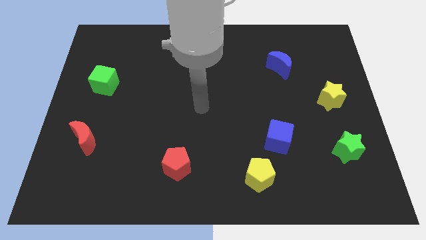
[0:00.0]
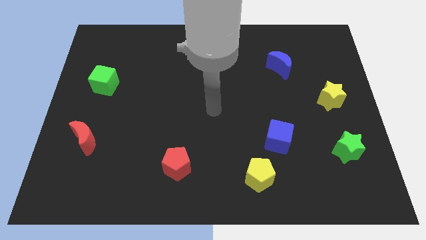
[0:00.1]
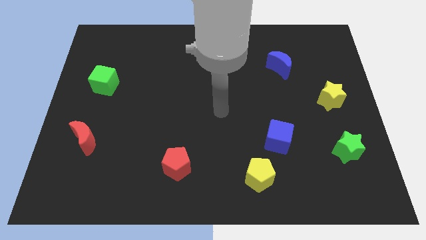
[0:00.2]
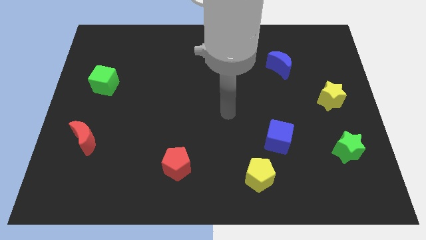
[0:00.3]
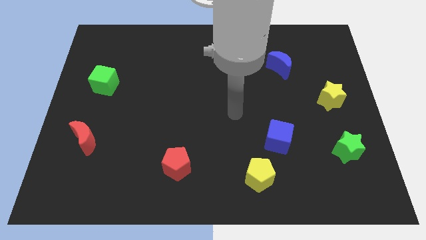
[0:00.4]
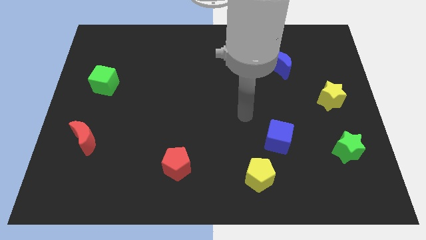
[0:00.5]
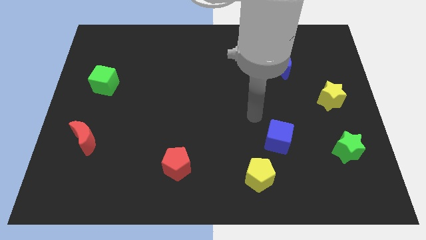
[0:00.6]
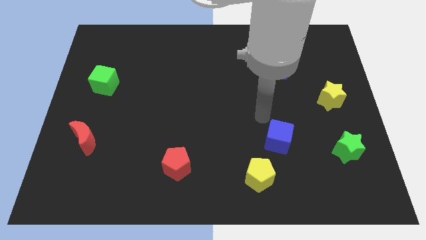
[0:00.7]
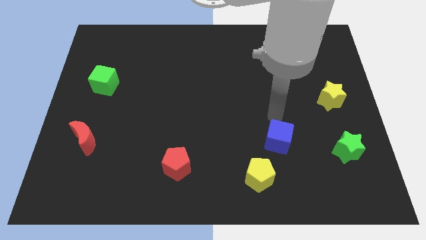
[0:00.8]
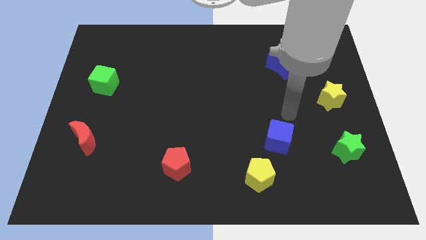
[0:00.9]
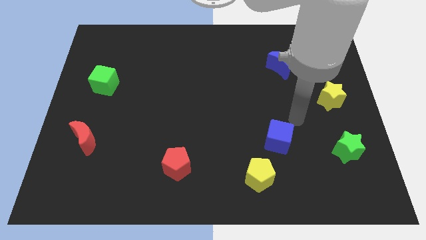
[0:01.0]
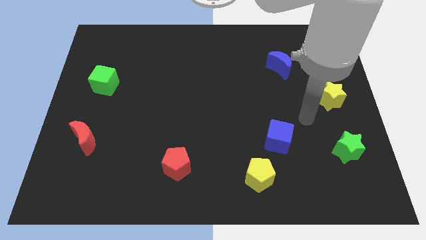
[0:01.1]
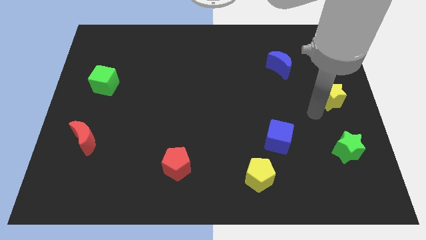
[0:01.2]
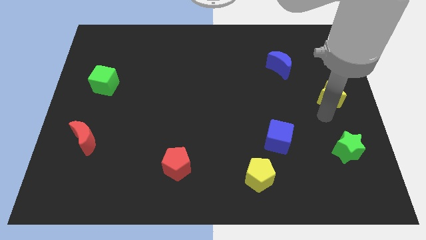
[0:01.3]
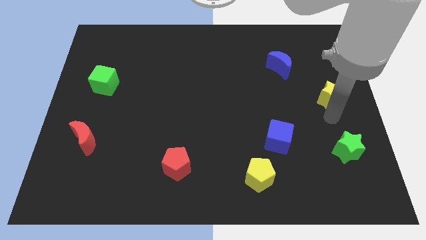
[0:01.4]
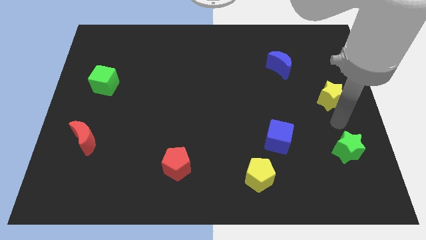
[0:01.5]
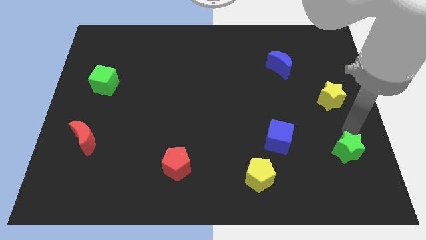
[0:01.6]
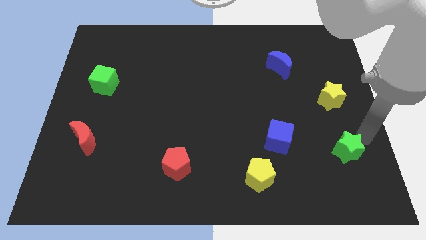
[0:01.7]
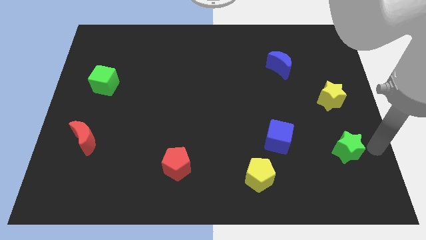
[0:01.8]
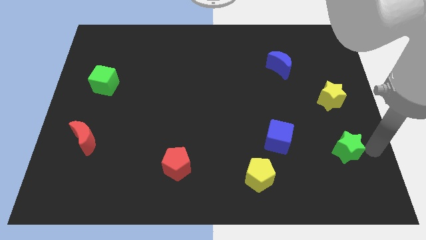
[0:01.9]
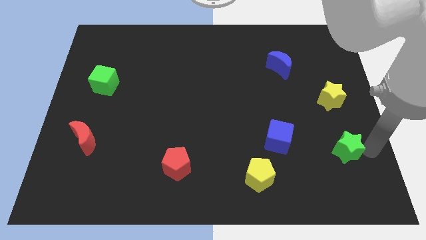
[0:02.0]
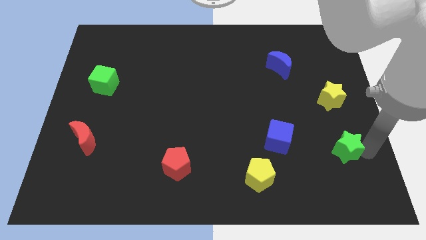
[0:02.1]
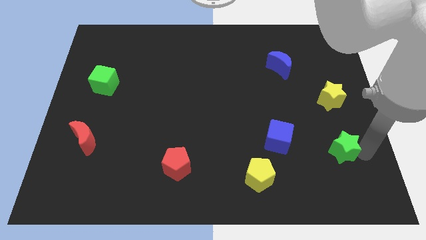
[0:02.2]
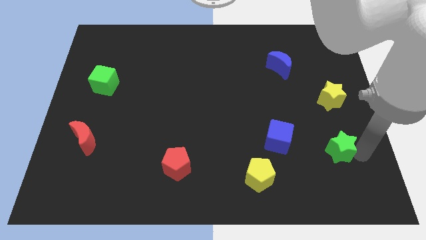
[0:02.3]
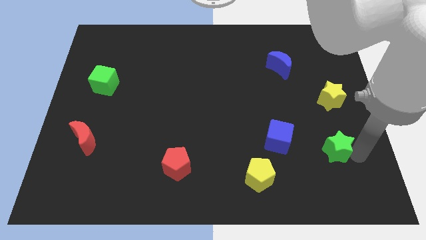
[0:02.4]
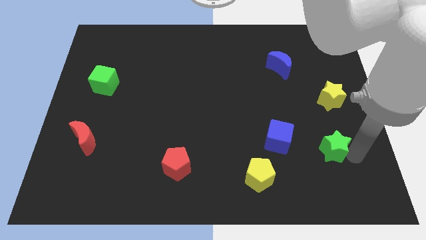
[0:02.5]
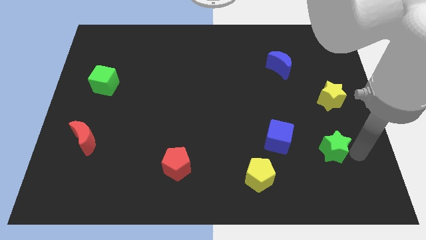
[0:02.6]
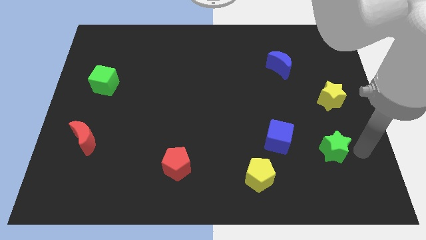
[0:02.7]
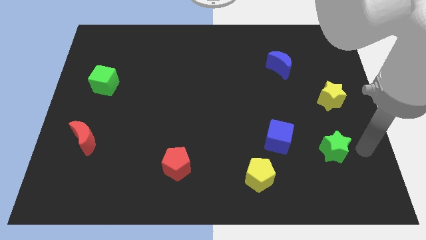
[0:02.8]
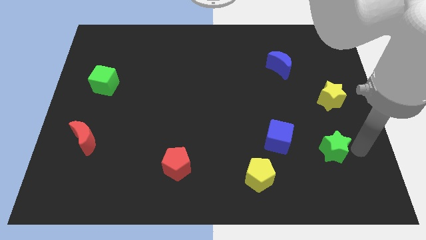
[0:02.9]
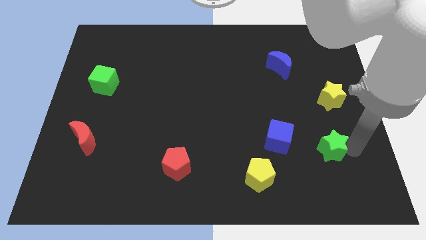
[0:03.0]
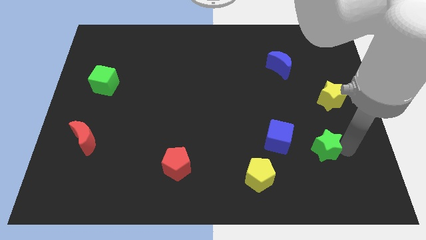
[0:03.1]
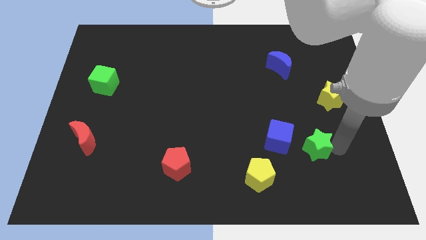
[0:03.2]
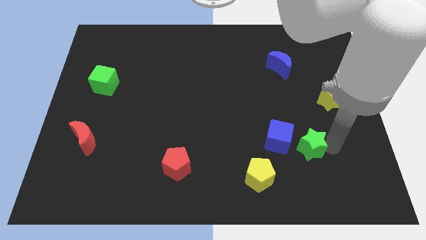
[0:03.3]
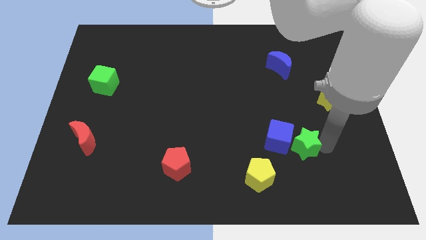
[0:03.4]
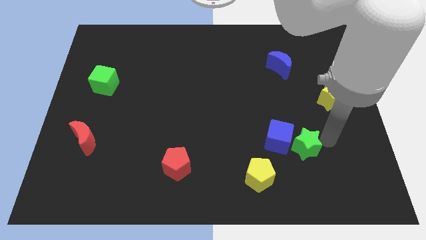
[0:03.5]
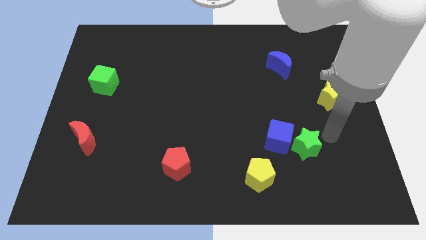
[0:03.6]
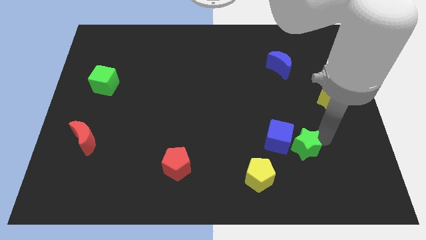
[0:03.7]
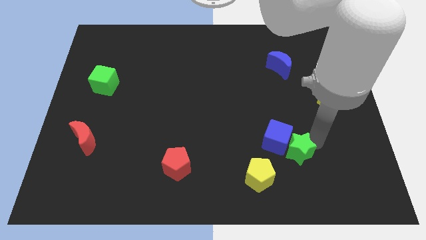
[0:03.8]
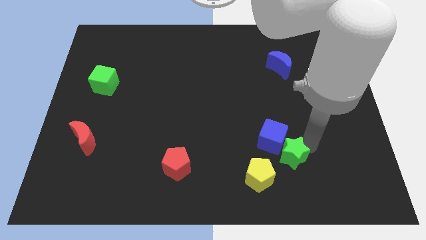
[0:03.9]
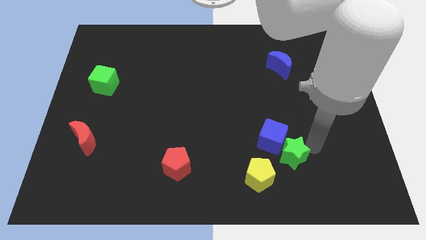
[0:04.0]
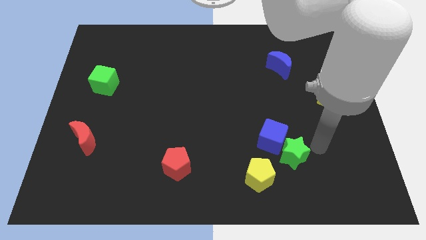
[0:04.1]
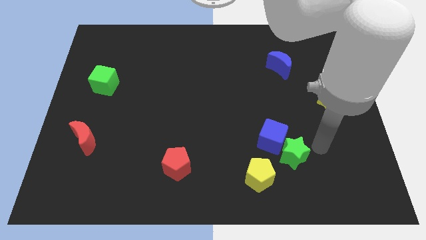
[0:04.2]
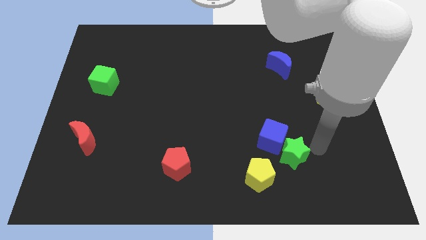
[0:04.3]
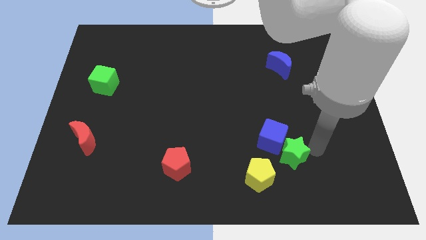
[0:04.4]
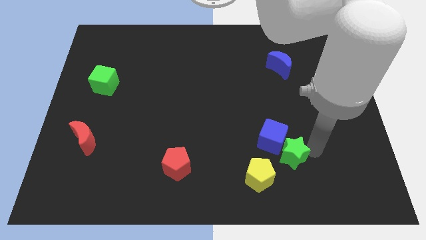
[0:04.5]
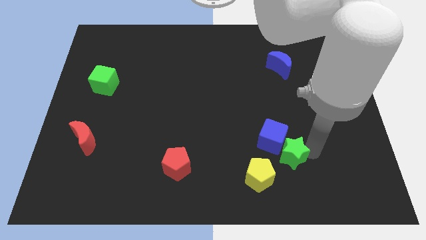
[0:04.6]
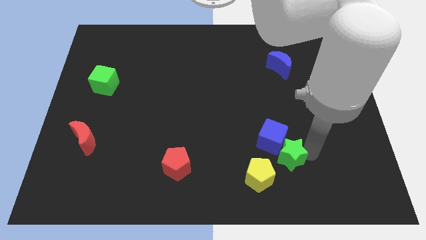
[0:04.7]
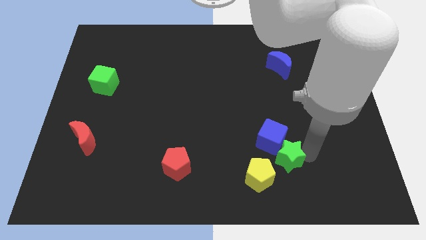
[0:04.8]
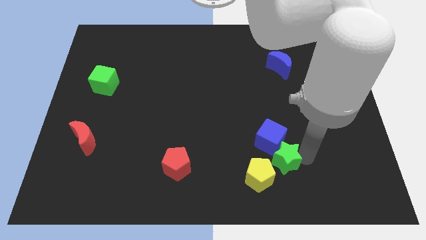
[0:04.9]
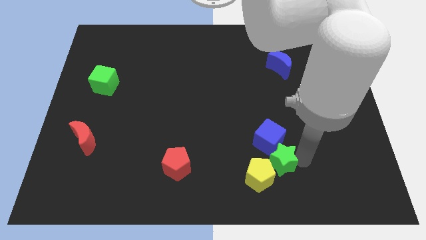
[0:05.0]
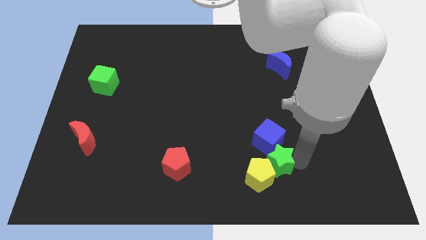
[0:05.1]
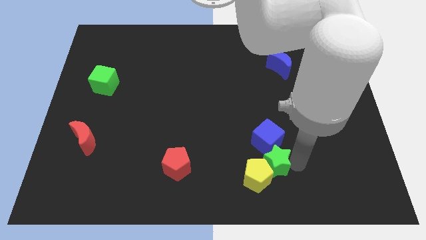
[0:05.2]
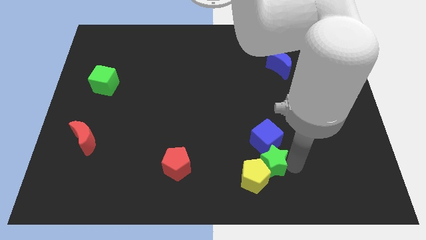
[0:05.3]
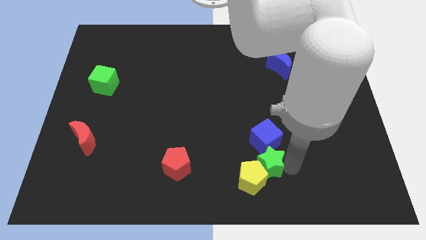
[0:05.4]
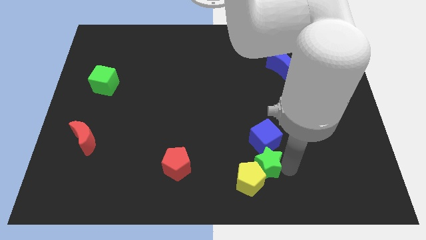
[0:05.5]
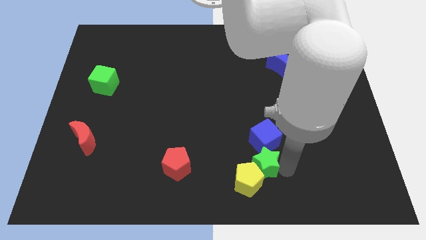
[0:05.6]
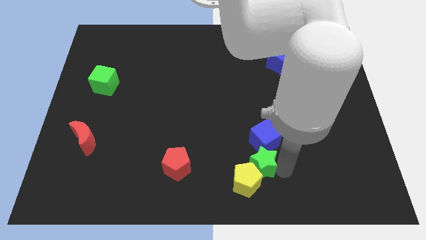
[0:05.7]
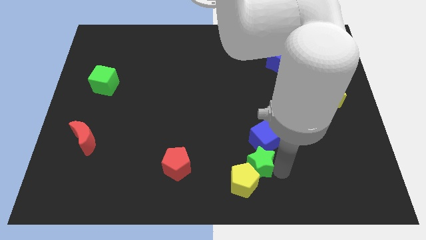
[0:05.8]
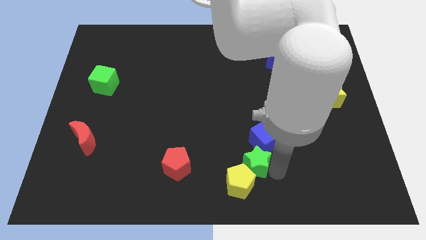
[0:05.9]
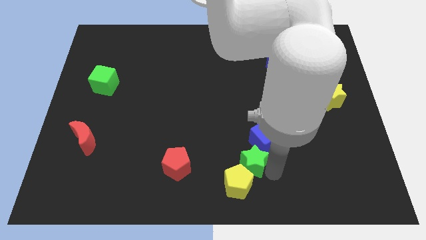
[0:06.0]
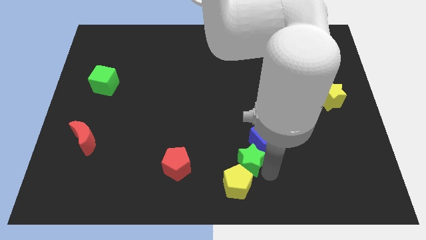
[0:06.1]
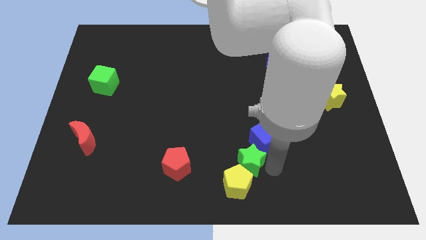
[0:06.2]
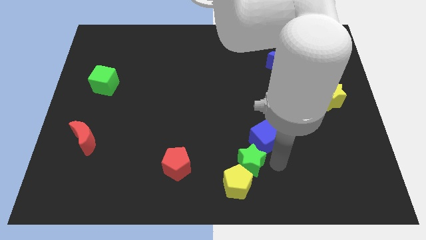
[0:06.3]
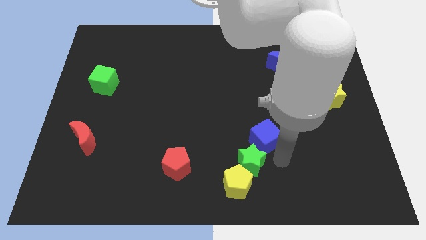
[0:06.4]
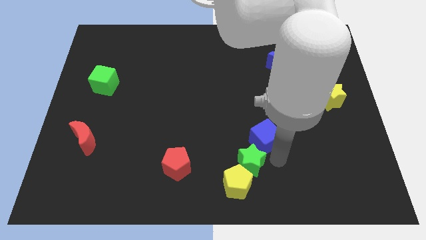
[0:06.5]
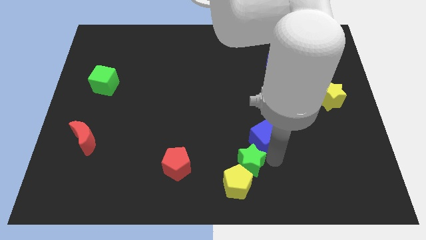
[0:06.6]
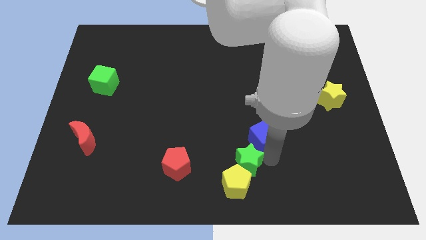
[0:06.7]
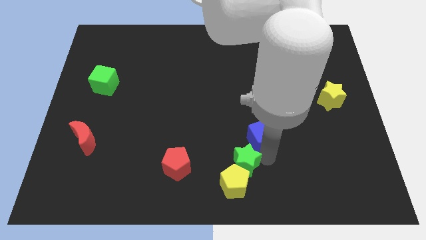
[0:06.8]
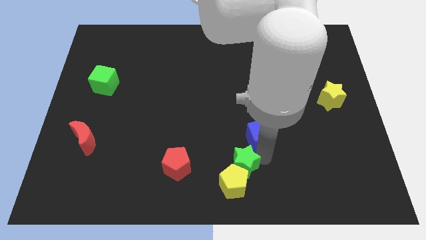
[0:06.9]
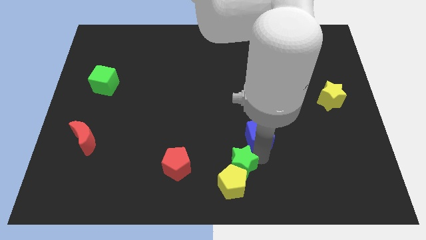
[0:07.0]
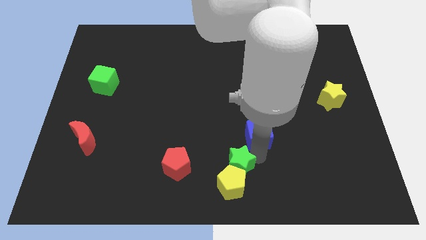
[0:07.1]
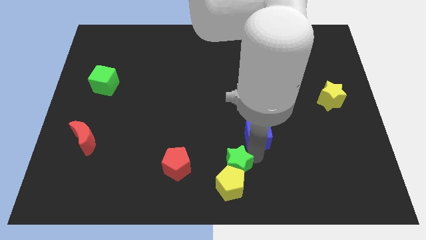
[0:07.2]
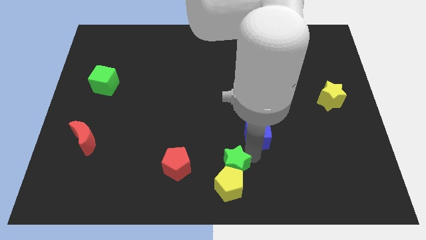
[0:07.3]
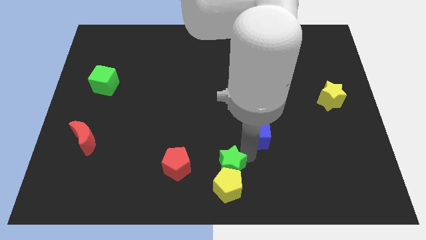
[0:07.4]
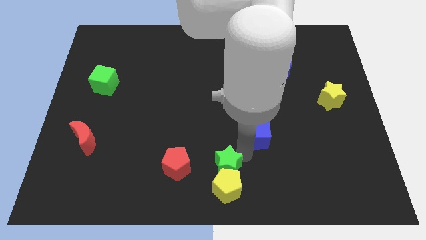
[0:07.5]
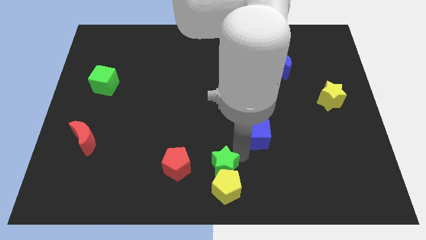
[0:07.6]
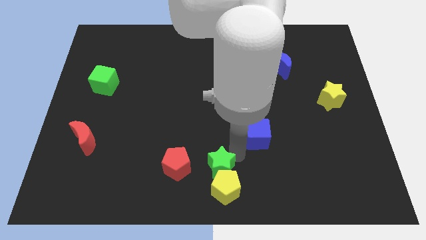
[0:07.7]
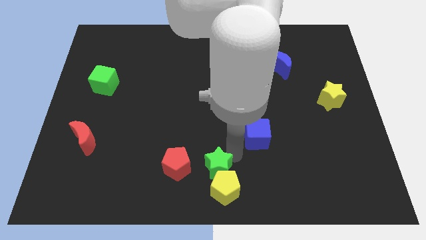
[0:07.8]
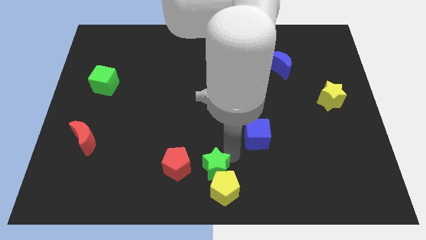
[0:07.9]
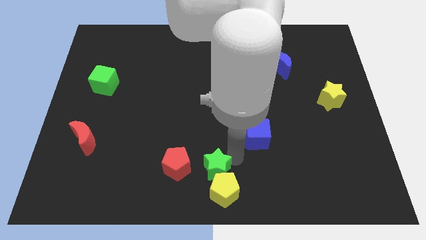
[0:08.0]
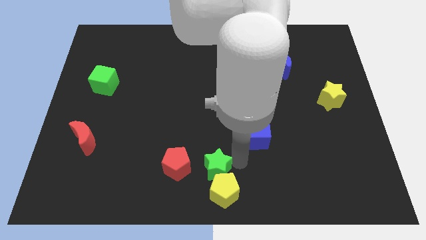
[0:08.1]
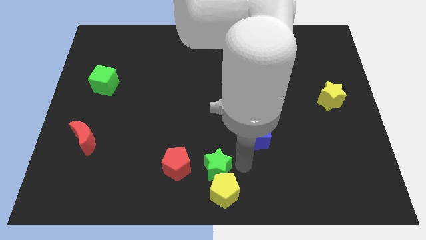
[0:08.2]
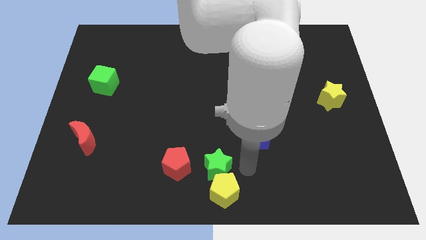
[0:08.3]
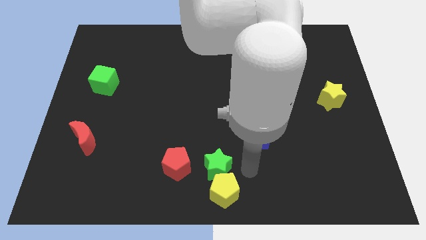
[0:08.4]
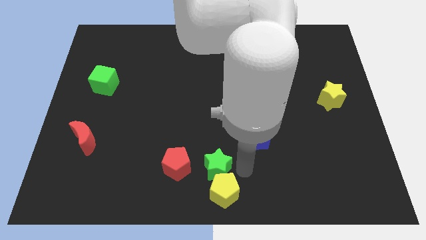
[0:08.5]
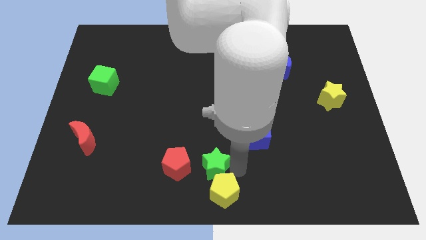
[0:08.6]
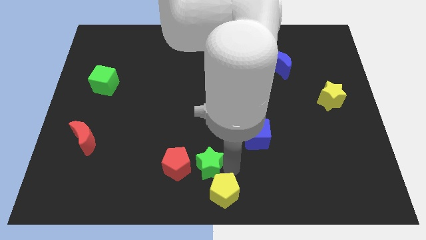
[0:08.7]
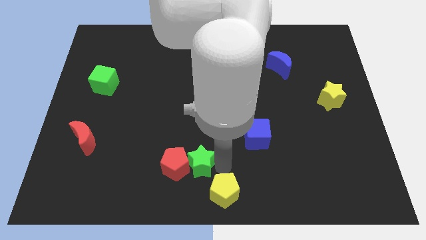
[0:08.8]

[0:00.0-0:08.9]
put the green star close to the red pentagon
